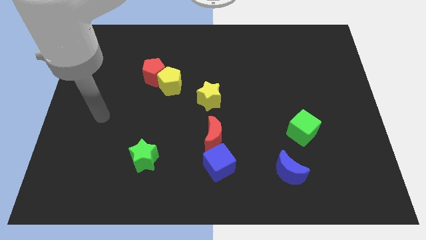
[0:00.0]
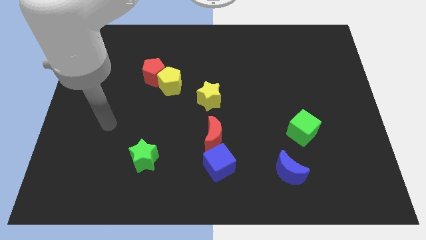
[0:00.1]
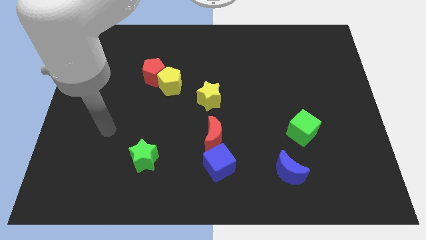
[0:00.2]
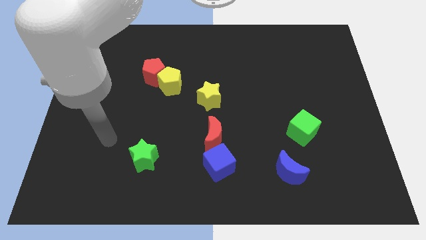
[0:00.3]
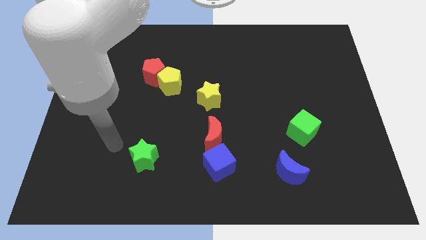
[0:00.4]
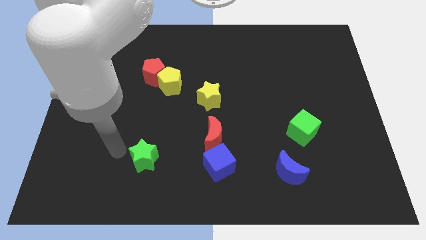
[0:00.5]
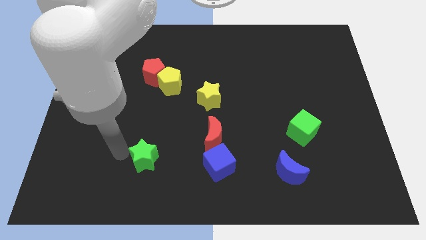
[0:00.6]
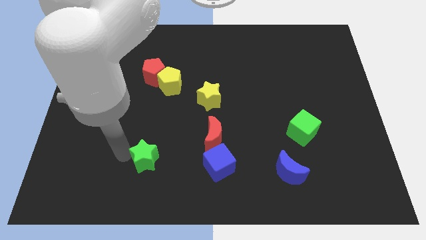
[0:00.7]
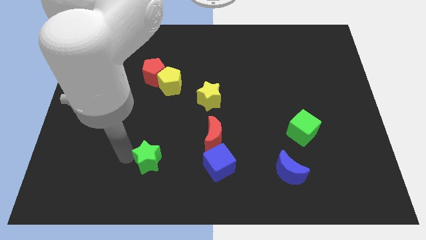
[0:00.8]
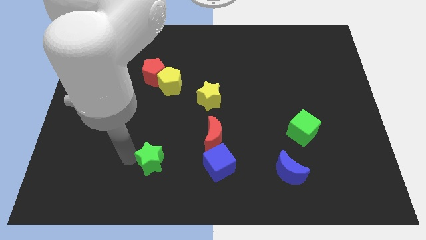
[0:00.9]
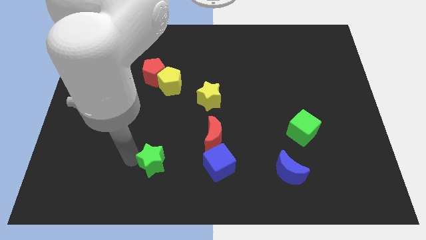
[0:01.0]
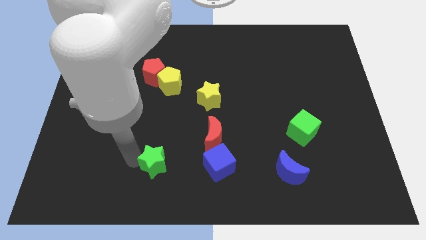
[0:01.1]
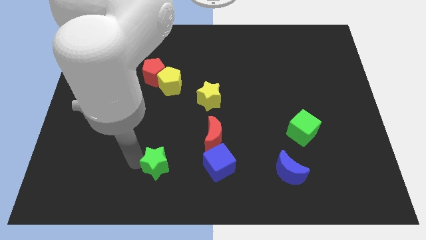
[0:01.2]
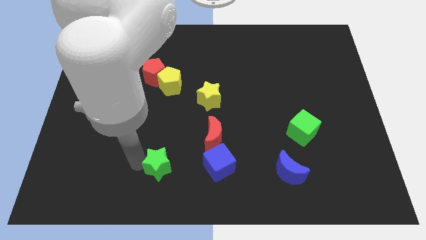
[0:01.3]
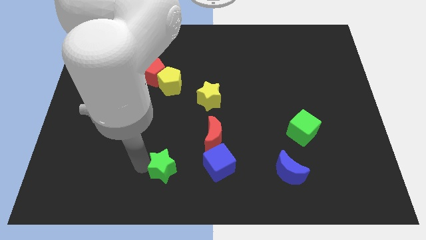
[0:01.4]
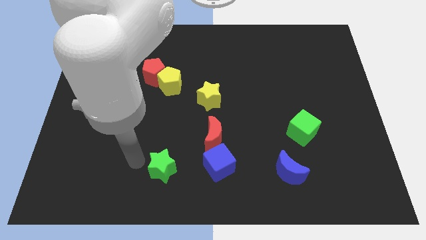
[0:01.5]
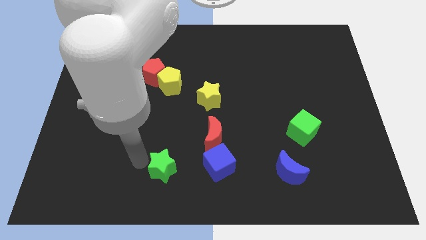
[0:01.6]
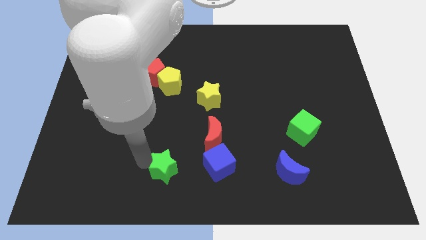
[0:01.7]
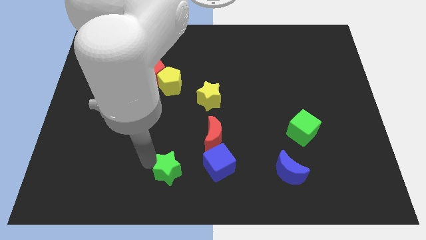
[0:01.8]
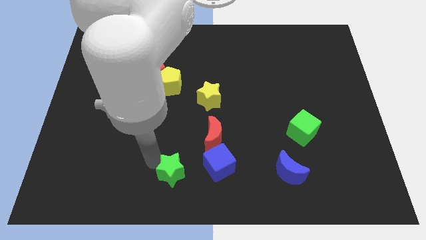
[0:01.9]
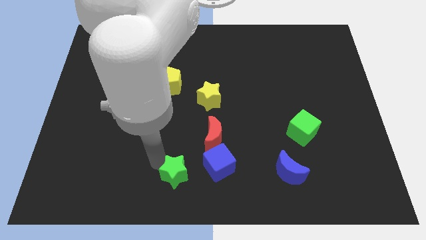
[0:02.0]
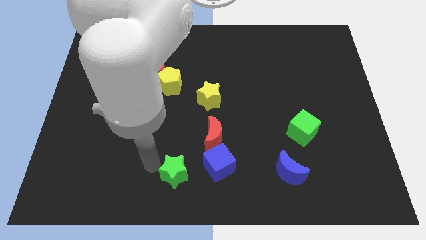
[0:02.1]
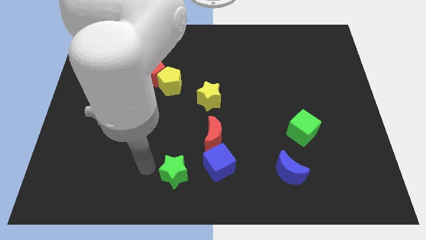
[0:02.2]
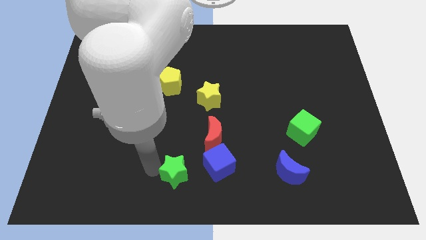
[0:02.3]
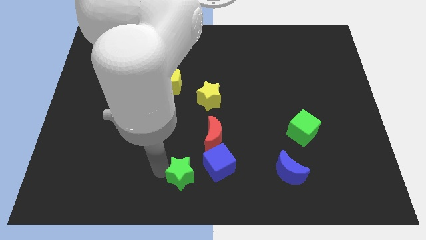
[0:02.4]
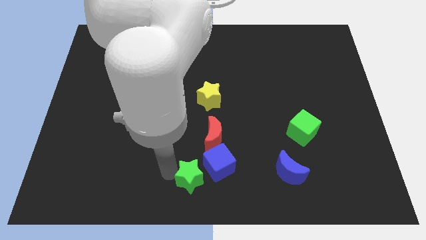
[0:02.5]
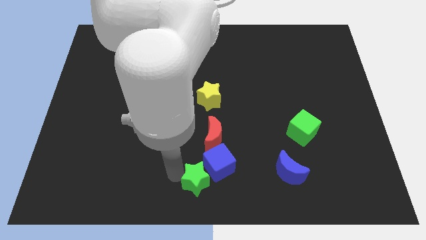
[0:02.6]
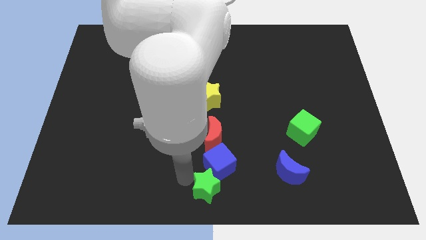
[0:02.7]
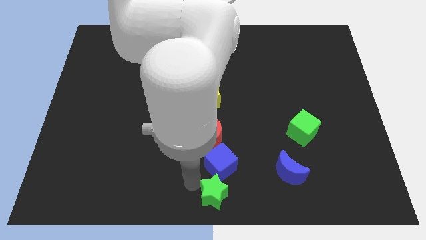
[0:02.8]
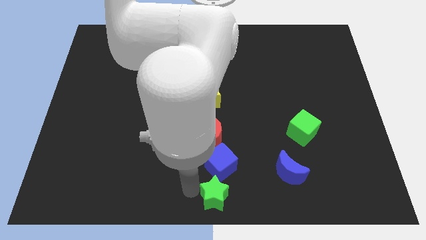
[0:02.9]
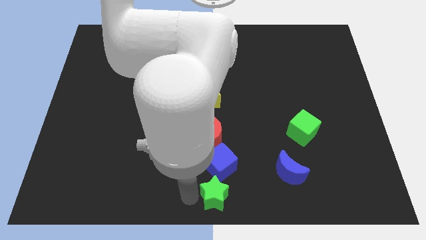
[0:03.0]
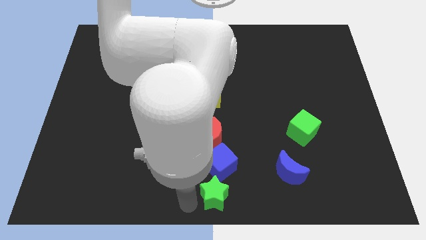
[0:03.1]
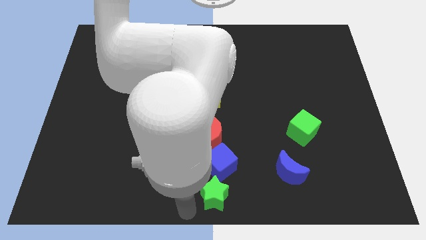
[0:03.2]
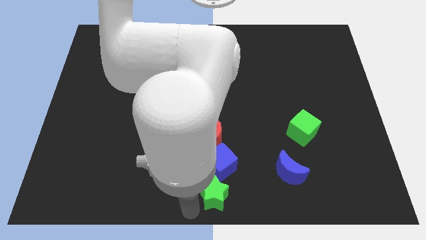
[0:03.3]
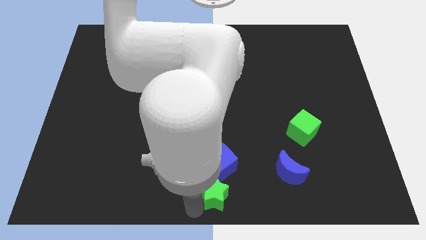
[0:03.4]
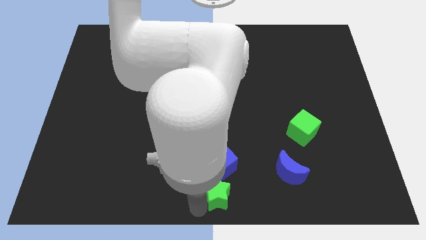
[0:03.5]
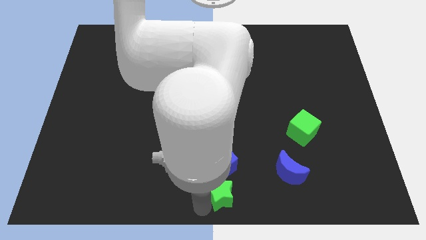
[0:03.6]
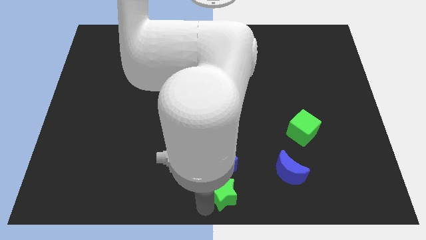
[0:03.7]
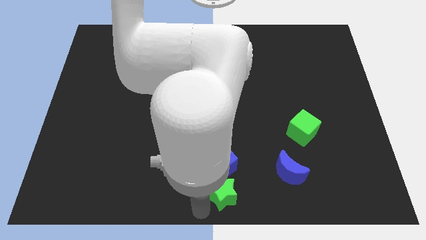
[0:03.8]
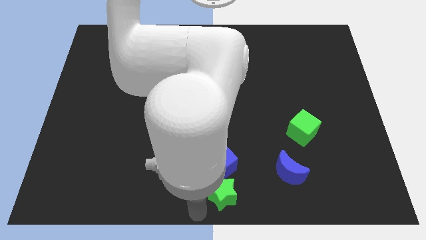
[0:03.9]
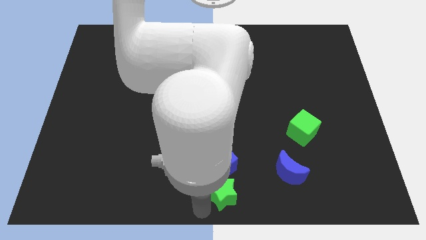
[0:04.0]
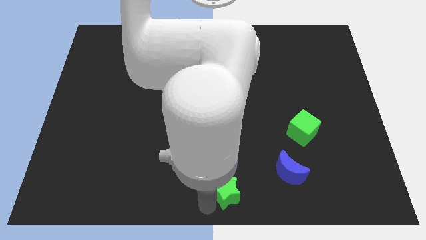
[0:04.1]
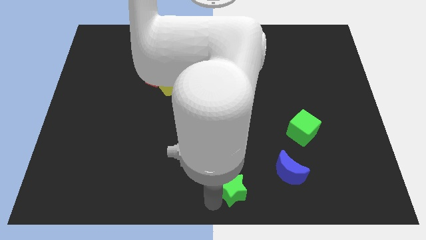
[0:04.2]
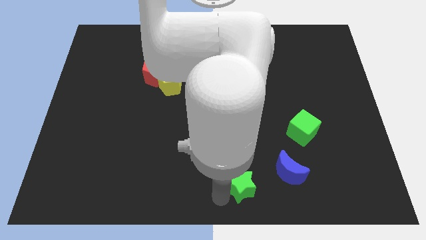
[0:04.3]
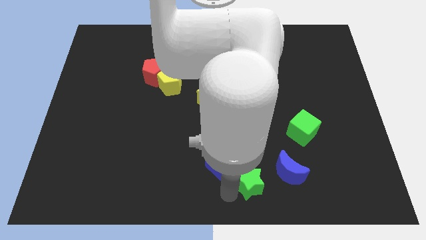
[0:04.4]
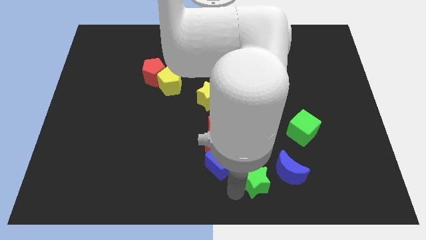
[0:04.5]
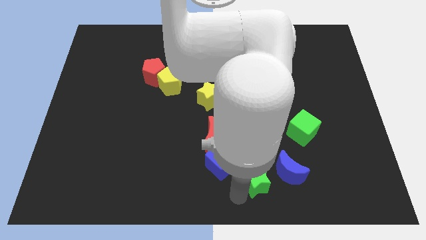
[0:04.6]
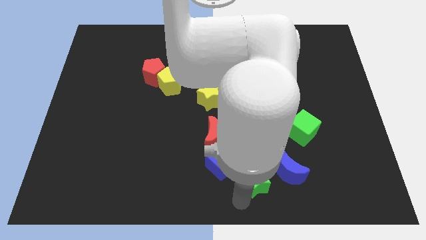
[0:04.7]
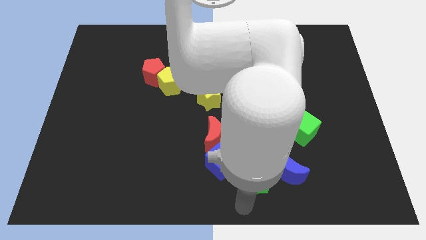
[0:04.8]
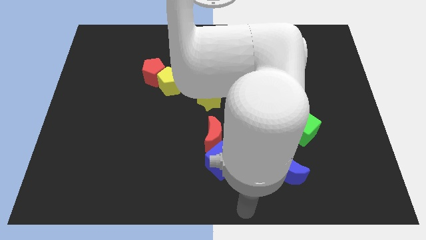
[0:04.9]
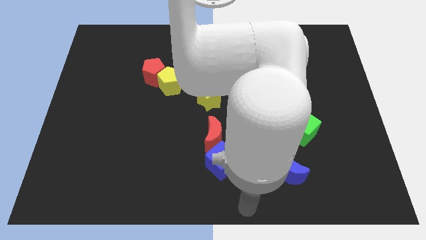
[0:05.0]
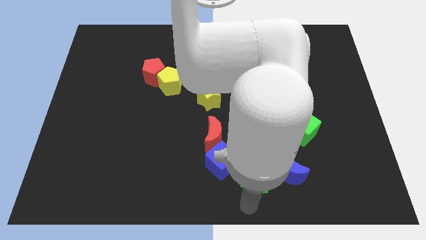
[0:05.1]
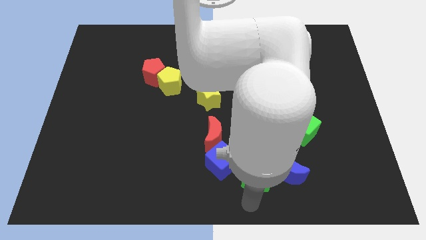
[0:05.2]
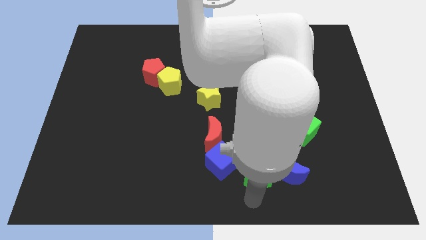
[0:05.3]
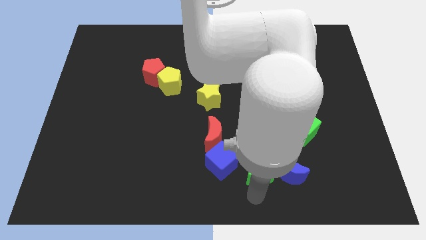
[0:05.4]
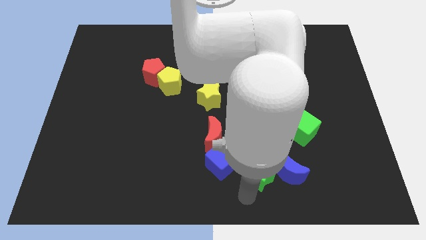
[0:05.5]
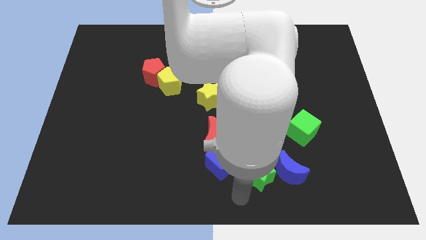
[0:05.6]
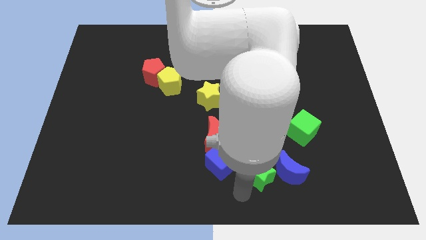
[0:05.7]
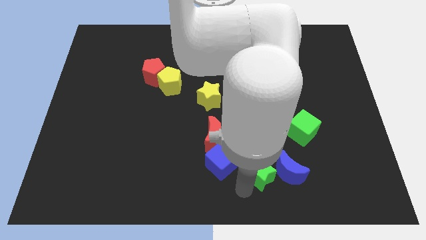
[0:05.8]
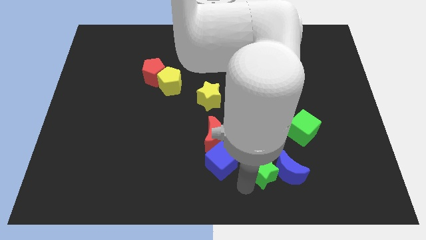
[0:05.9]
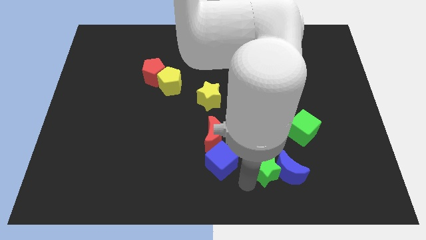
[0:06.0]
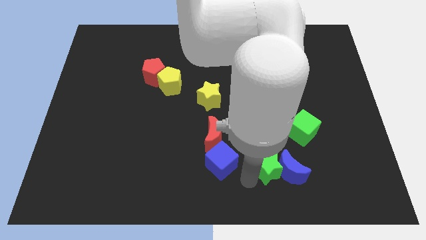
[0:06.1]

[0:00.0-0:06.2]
push the green star to the bottom left of the green cube

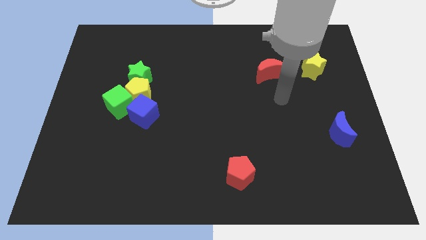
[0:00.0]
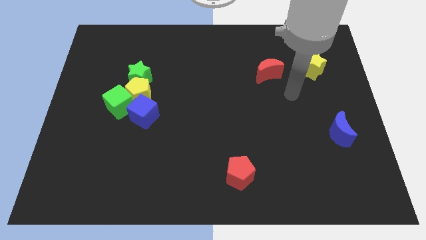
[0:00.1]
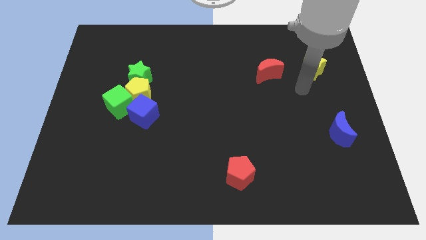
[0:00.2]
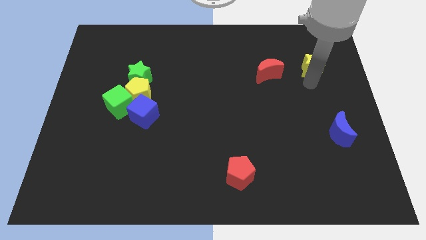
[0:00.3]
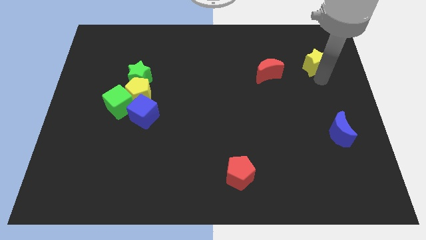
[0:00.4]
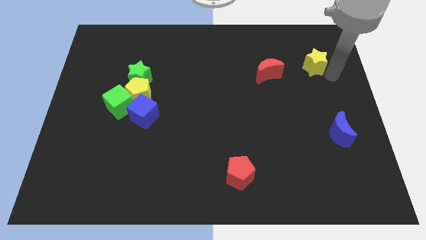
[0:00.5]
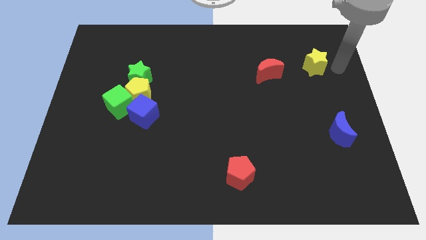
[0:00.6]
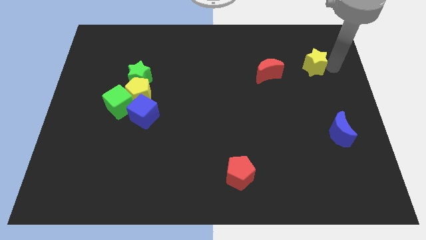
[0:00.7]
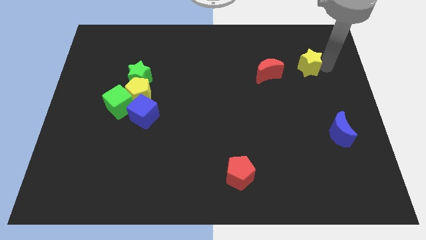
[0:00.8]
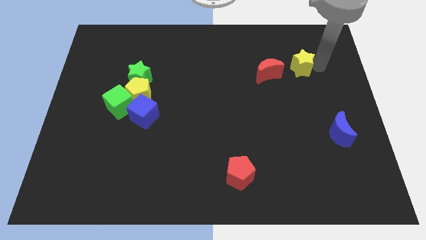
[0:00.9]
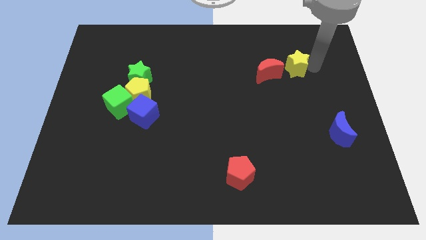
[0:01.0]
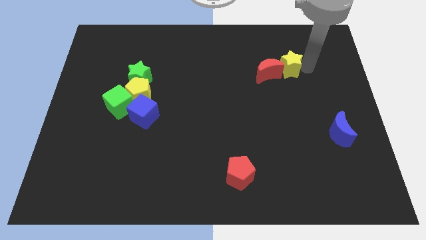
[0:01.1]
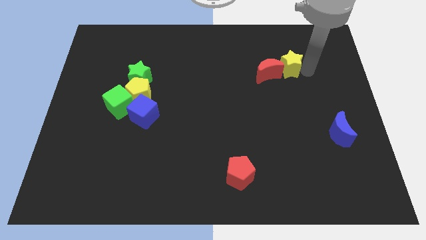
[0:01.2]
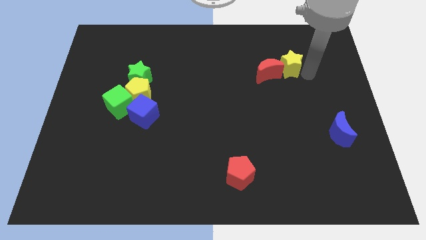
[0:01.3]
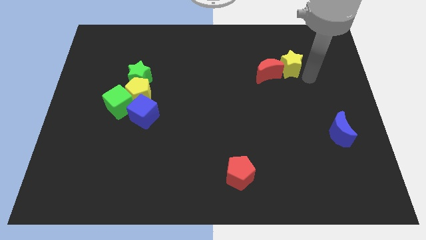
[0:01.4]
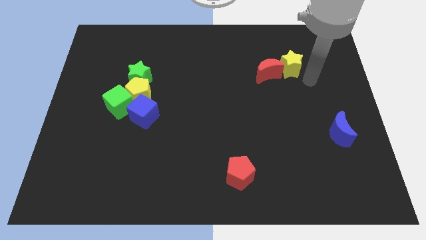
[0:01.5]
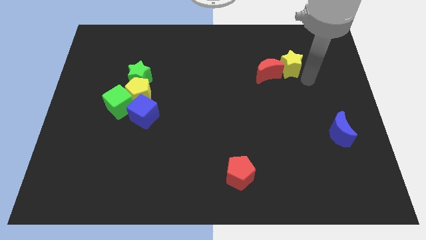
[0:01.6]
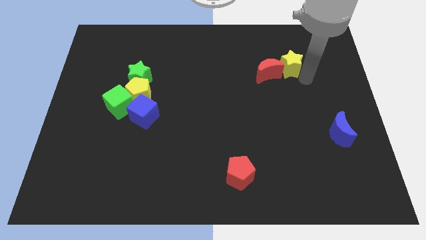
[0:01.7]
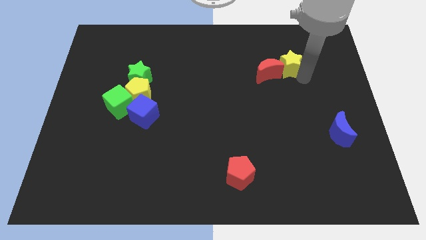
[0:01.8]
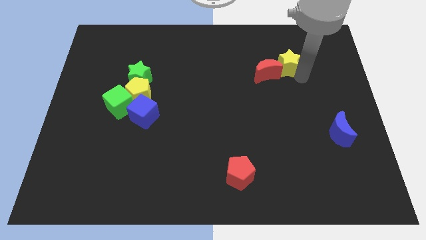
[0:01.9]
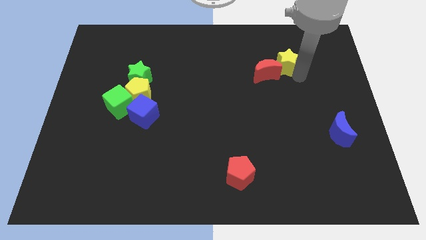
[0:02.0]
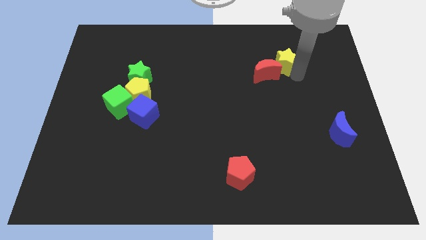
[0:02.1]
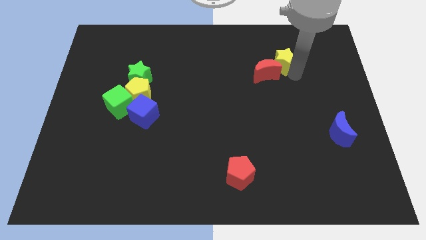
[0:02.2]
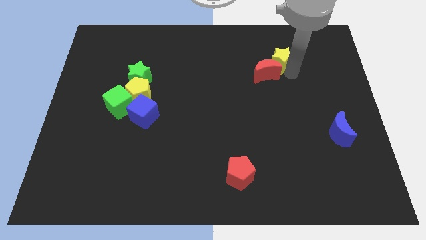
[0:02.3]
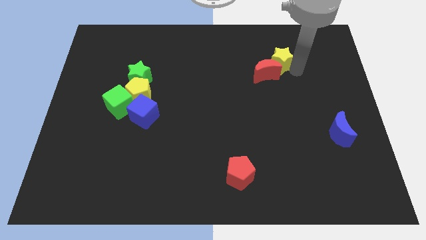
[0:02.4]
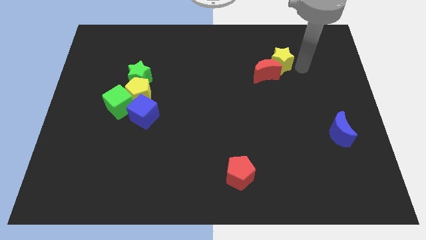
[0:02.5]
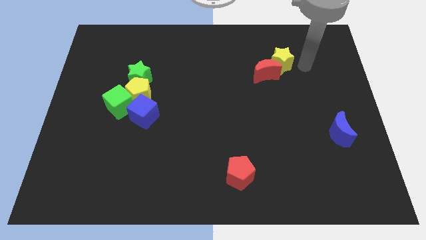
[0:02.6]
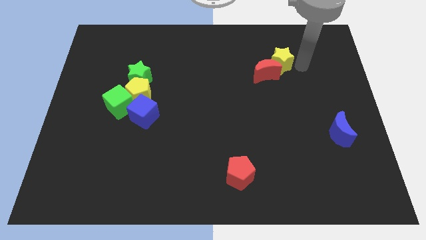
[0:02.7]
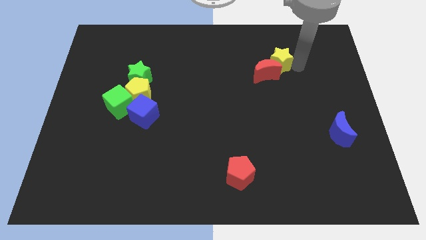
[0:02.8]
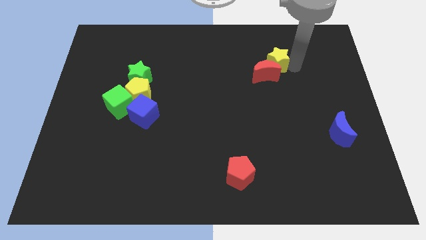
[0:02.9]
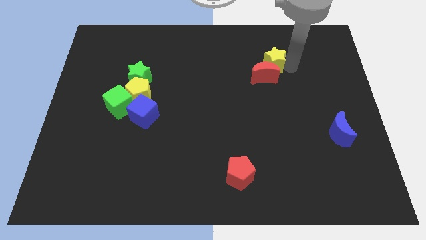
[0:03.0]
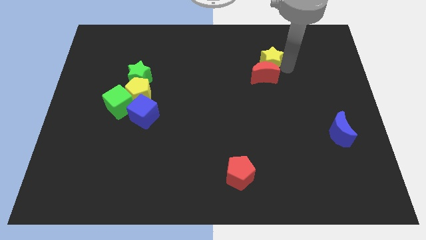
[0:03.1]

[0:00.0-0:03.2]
put the yellow star to the top left of the red moon
